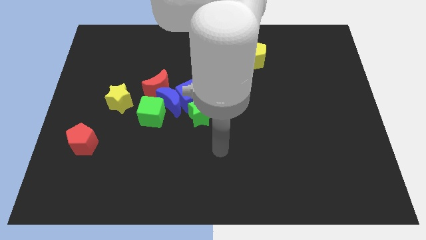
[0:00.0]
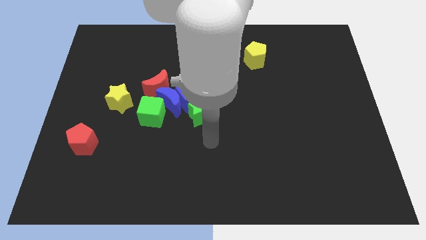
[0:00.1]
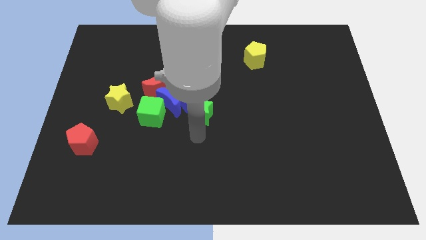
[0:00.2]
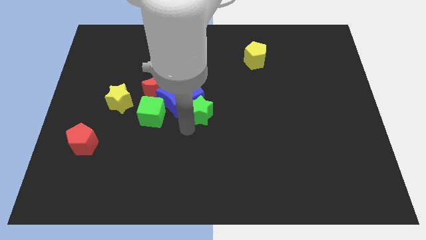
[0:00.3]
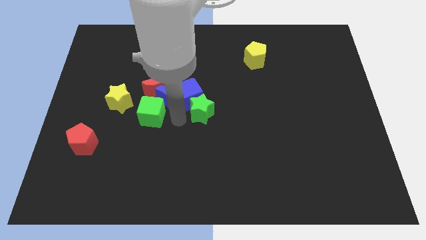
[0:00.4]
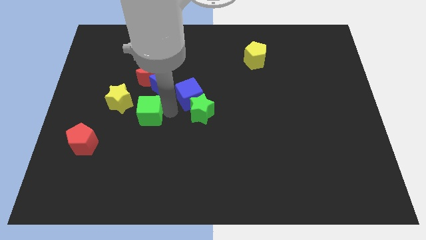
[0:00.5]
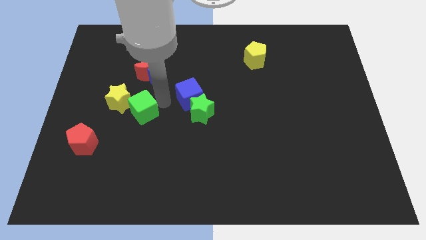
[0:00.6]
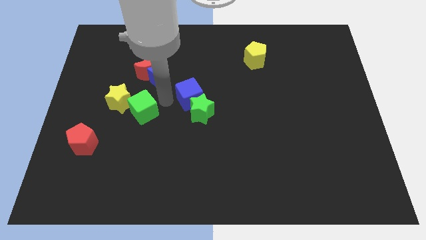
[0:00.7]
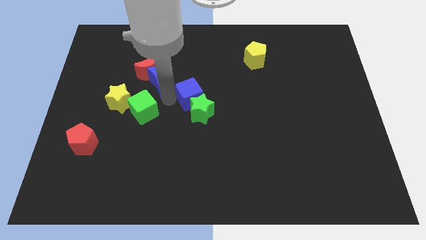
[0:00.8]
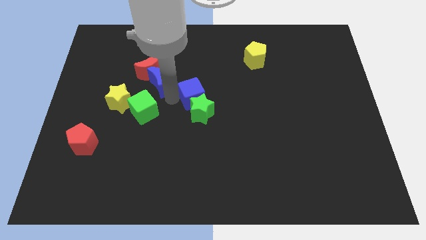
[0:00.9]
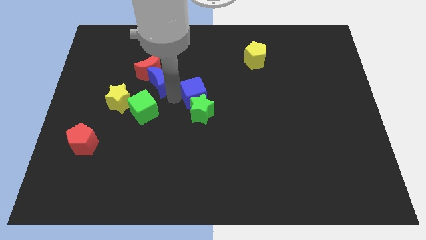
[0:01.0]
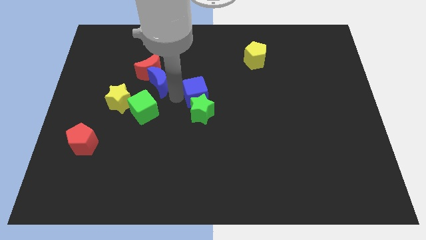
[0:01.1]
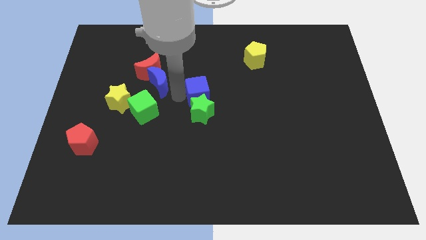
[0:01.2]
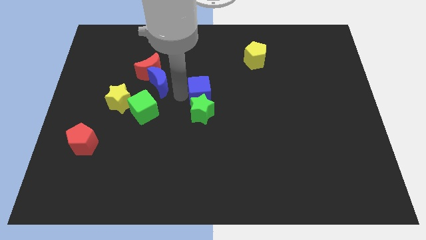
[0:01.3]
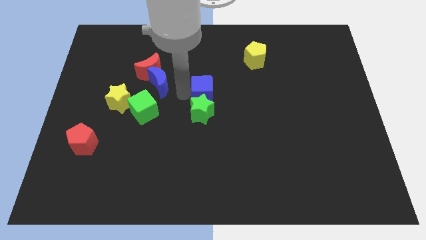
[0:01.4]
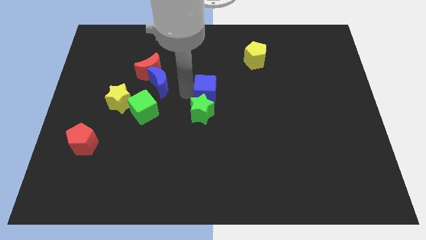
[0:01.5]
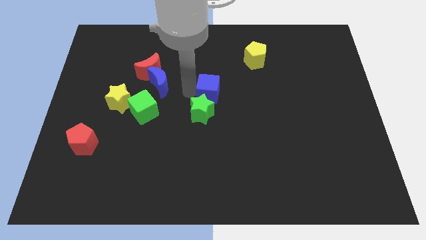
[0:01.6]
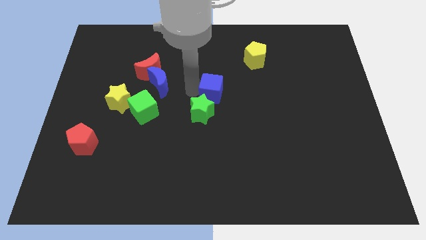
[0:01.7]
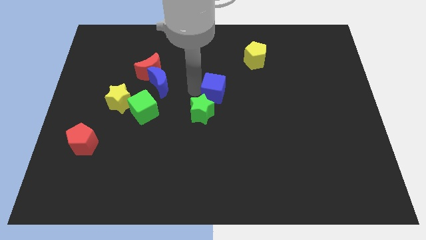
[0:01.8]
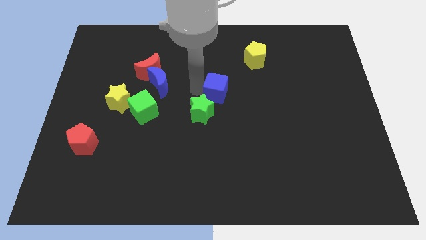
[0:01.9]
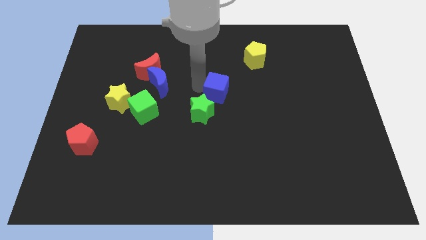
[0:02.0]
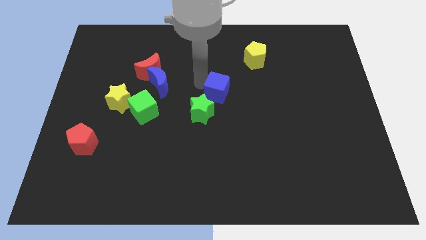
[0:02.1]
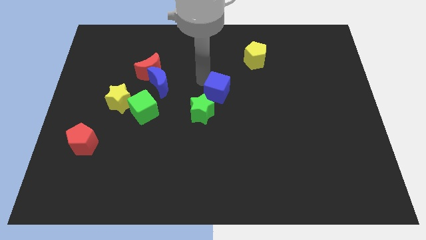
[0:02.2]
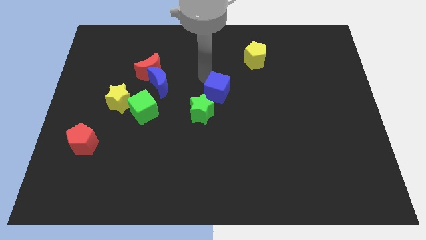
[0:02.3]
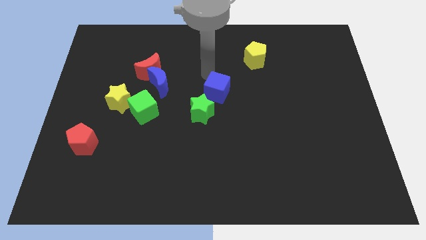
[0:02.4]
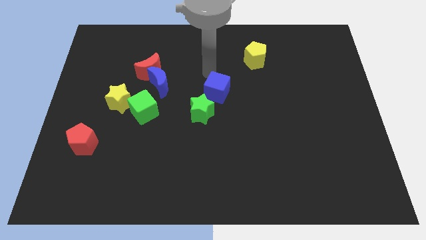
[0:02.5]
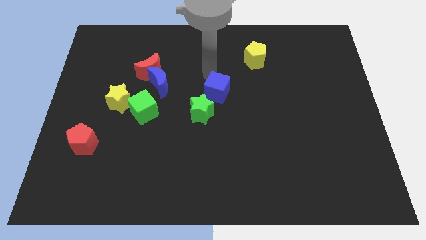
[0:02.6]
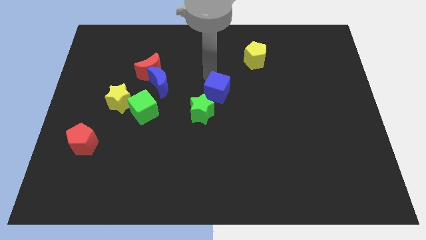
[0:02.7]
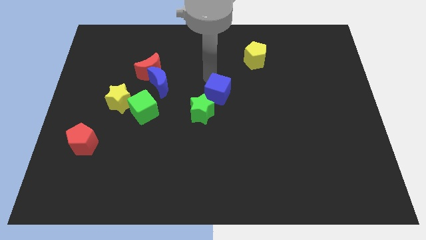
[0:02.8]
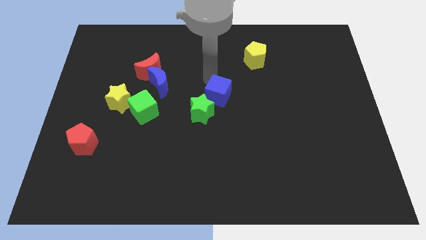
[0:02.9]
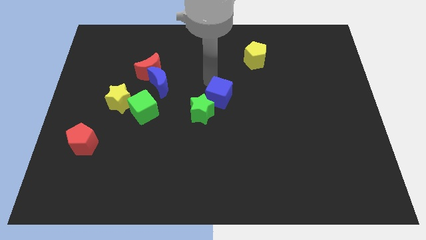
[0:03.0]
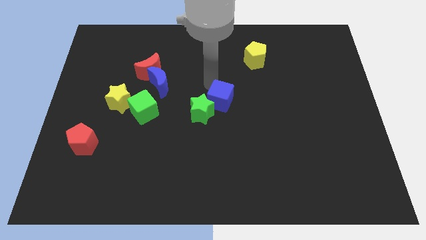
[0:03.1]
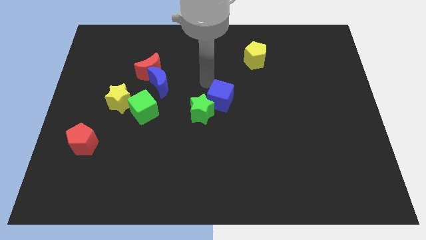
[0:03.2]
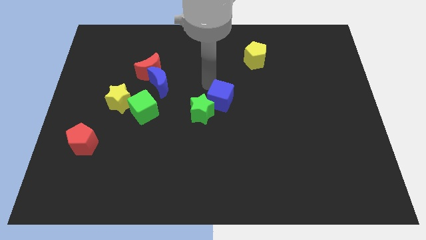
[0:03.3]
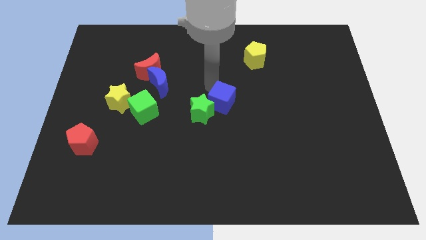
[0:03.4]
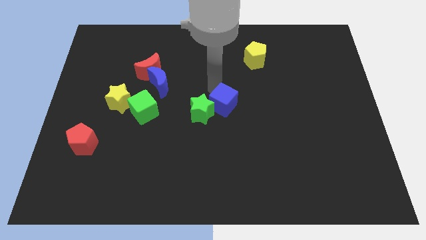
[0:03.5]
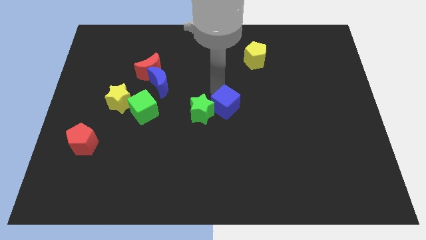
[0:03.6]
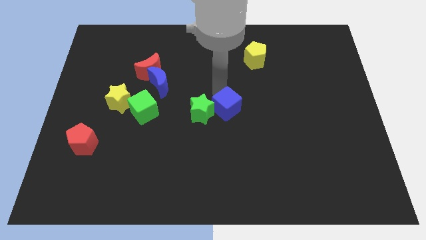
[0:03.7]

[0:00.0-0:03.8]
slightly push the blue cube downwards and to the right diagonally

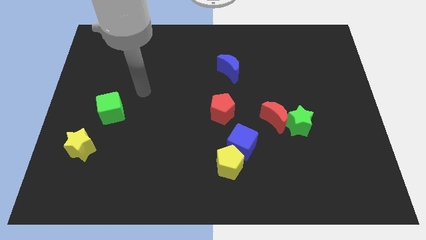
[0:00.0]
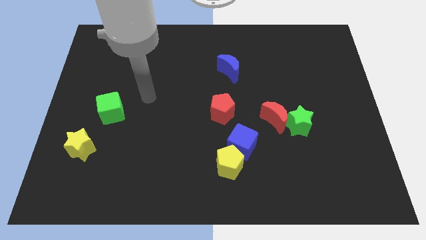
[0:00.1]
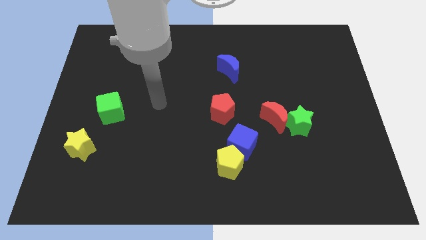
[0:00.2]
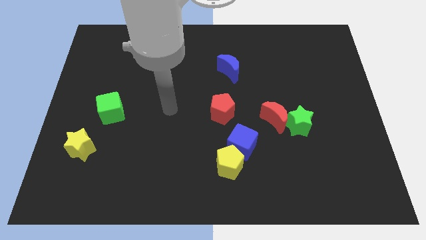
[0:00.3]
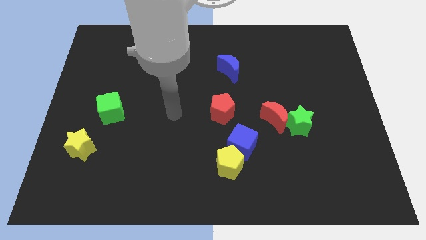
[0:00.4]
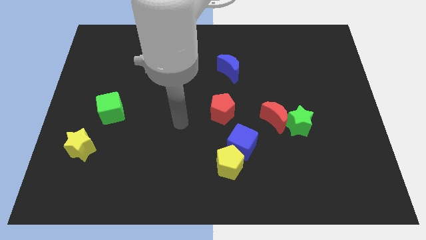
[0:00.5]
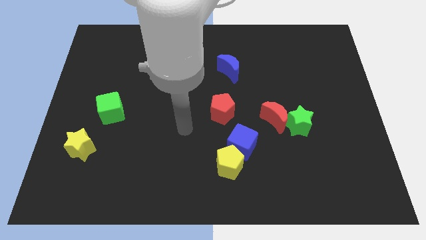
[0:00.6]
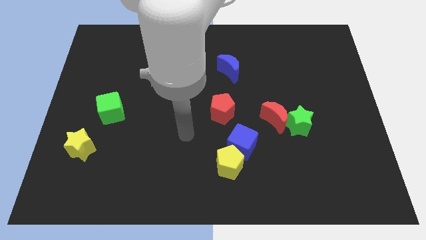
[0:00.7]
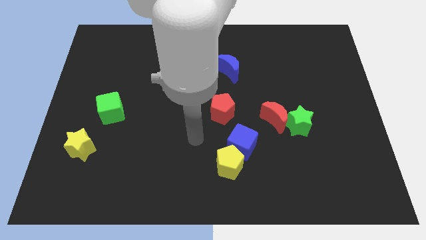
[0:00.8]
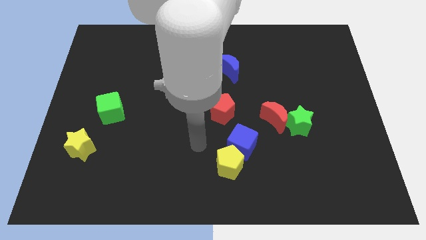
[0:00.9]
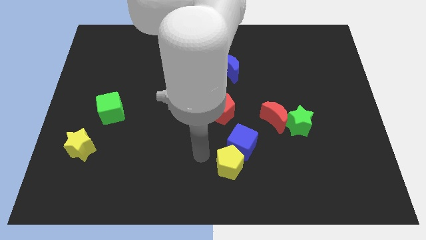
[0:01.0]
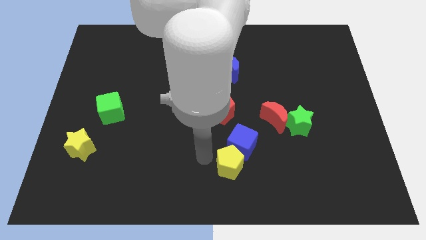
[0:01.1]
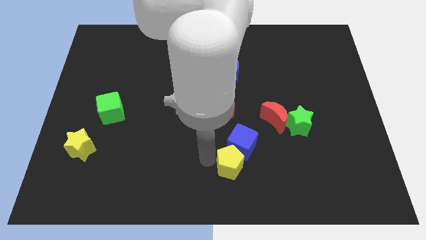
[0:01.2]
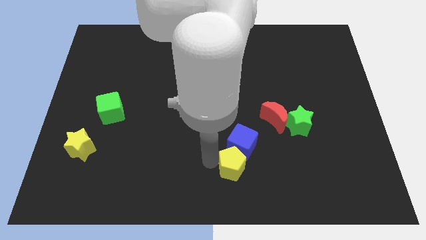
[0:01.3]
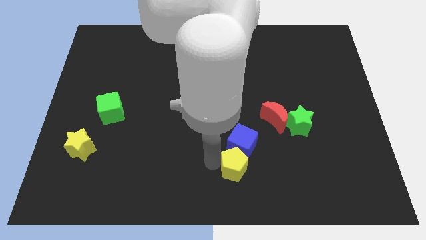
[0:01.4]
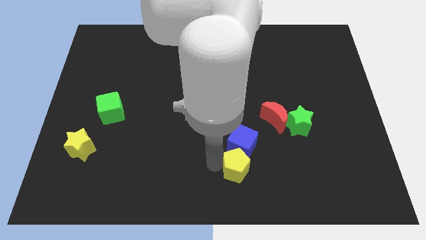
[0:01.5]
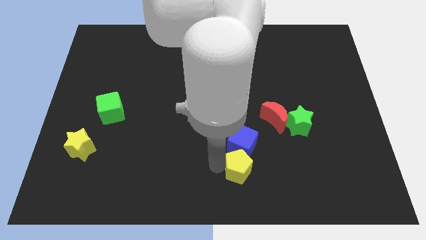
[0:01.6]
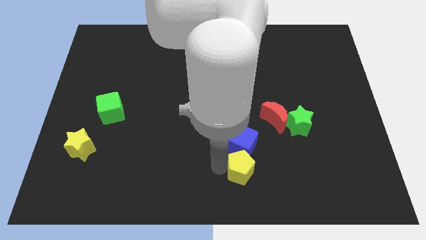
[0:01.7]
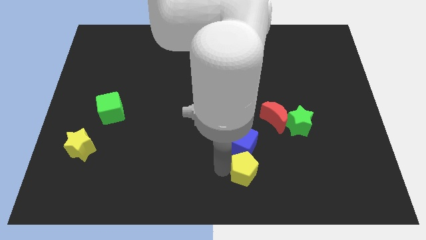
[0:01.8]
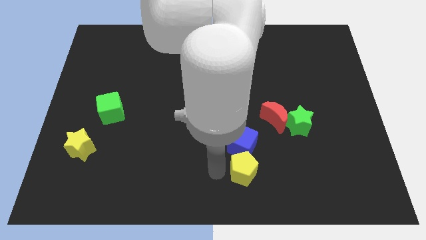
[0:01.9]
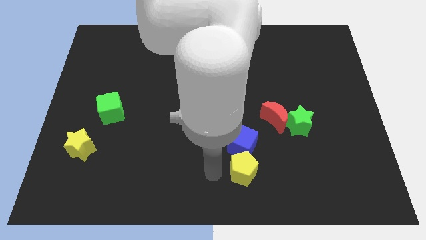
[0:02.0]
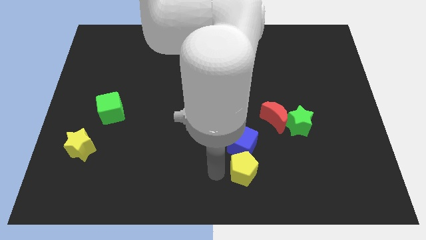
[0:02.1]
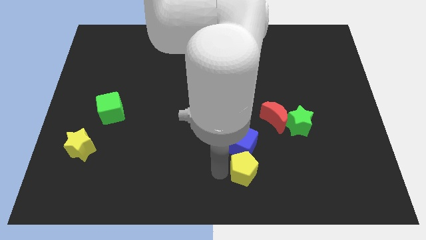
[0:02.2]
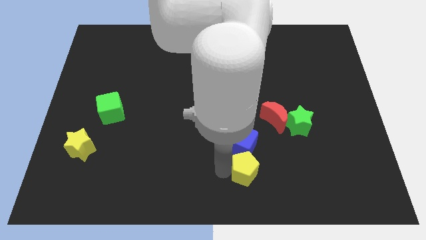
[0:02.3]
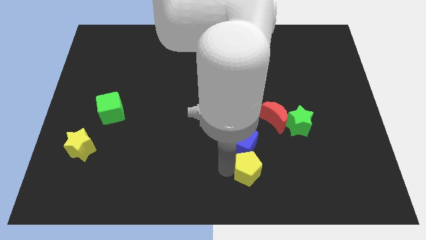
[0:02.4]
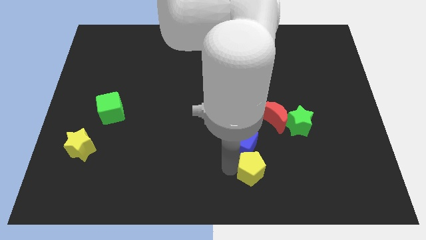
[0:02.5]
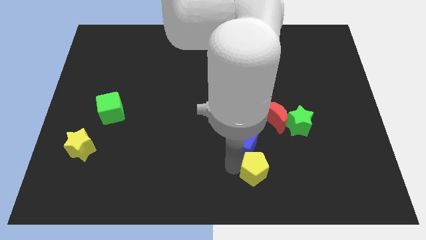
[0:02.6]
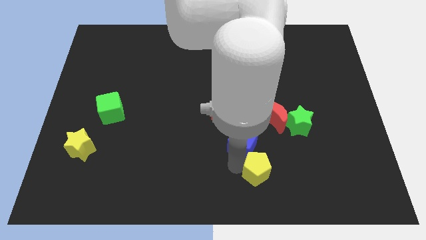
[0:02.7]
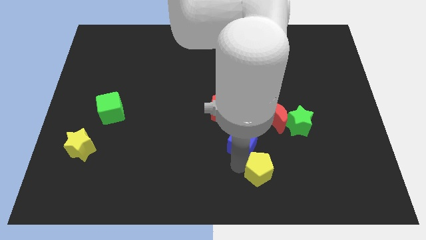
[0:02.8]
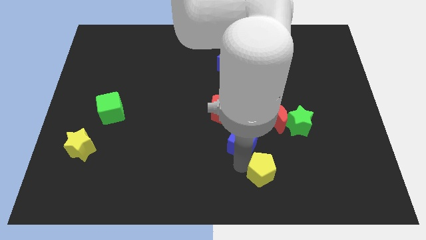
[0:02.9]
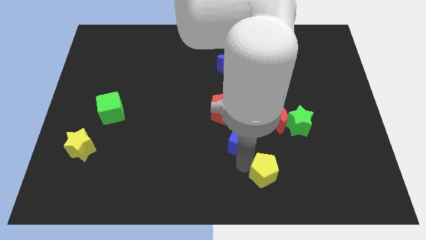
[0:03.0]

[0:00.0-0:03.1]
slightly move the yellow pentagon to the right

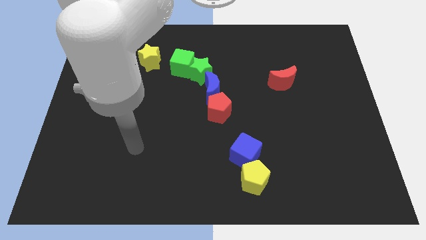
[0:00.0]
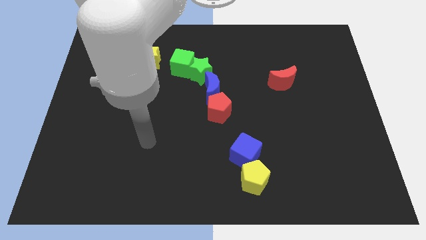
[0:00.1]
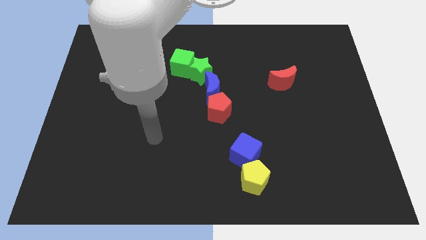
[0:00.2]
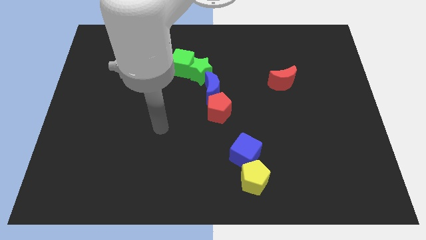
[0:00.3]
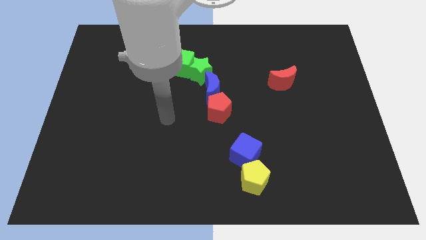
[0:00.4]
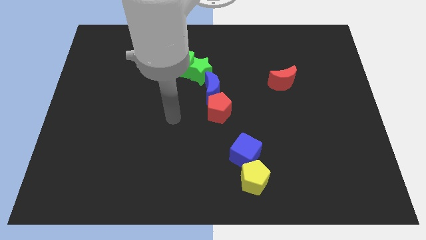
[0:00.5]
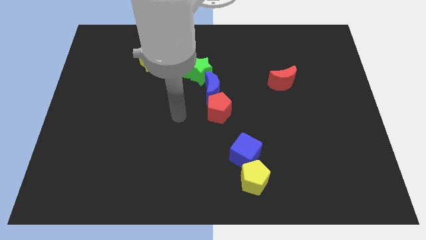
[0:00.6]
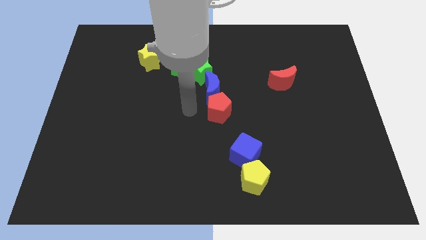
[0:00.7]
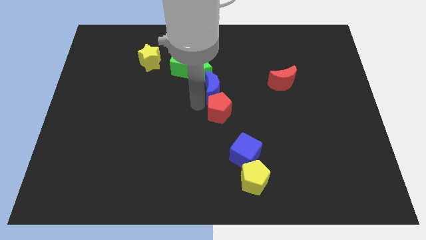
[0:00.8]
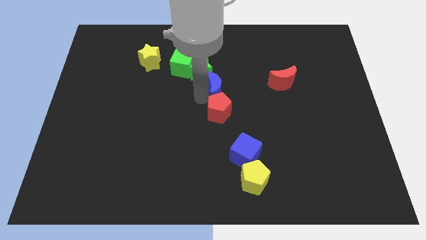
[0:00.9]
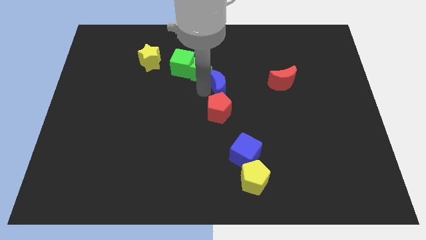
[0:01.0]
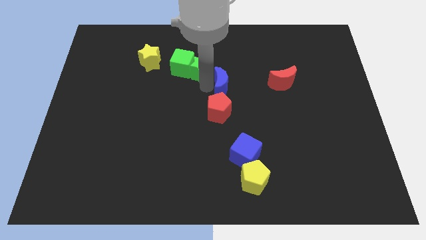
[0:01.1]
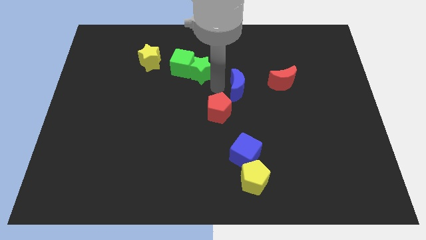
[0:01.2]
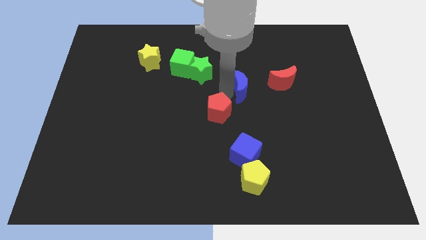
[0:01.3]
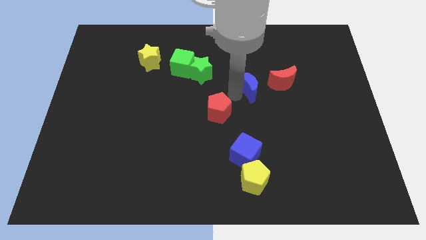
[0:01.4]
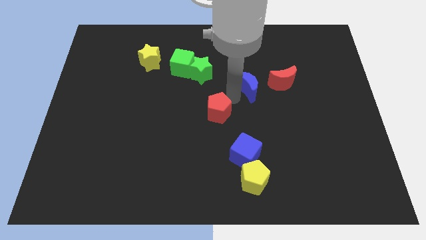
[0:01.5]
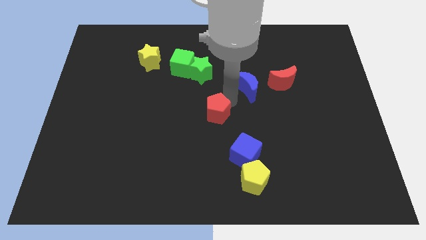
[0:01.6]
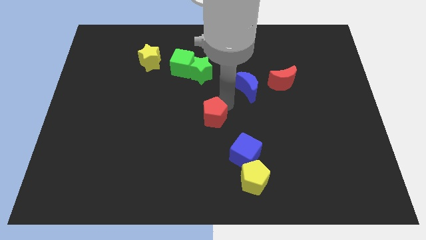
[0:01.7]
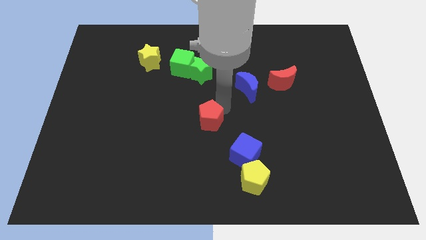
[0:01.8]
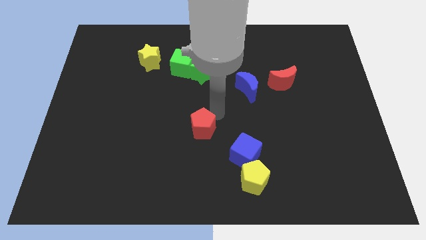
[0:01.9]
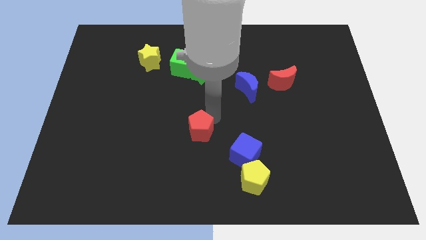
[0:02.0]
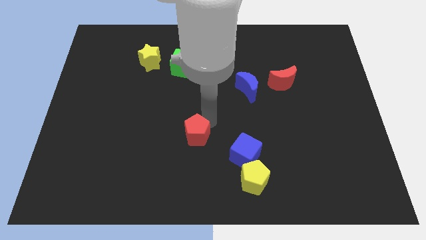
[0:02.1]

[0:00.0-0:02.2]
move the red pentagon downwards and then left a little
